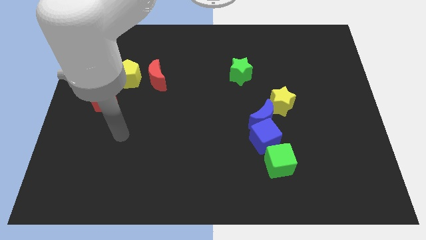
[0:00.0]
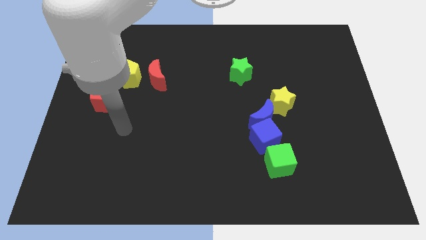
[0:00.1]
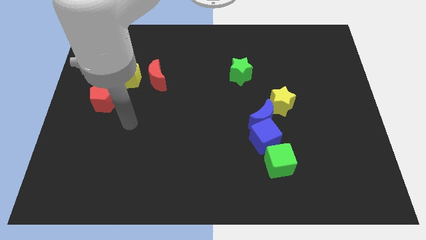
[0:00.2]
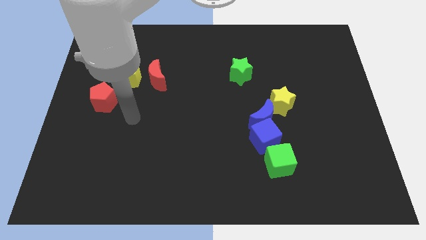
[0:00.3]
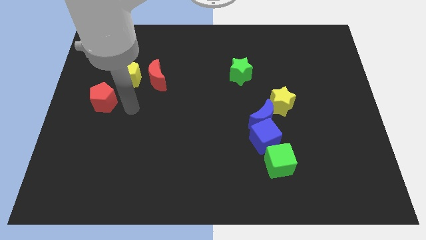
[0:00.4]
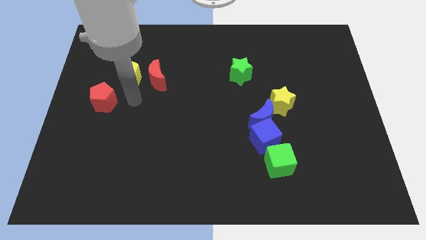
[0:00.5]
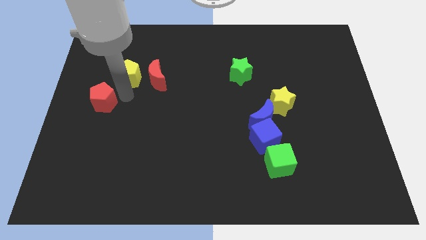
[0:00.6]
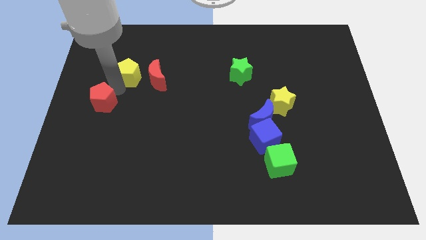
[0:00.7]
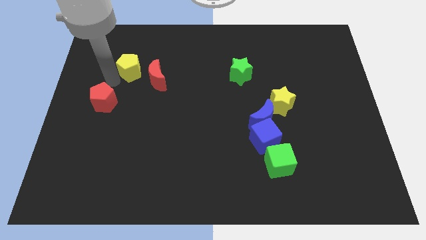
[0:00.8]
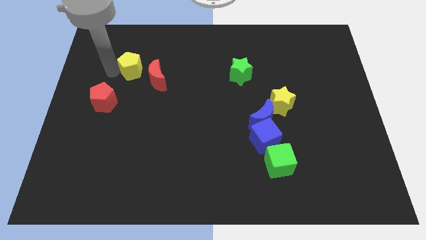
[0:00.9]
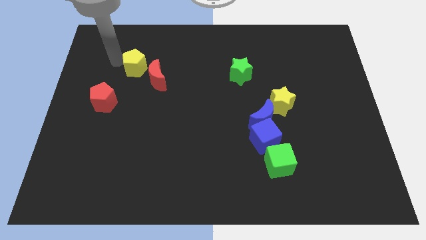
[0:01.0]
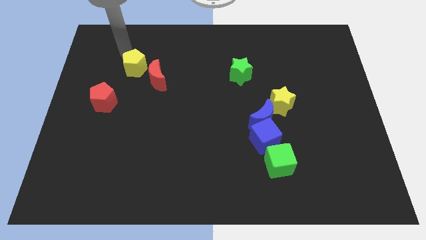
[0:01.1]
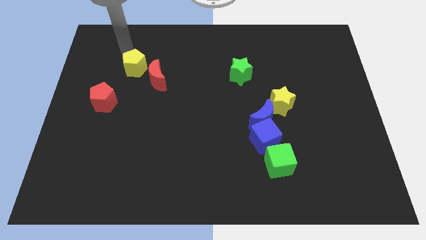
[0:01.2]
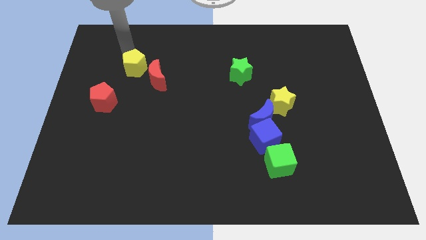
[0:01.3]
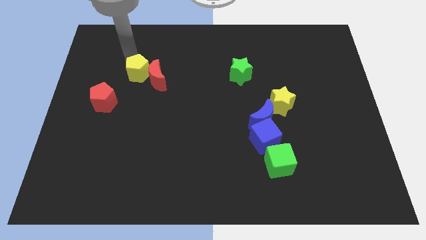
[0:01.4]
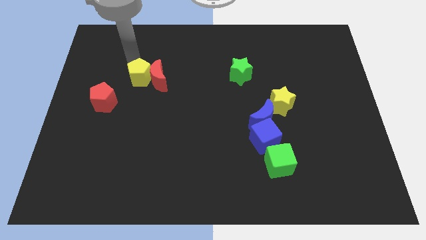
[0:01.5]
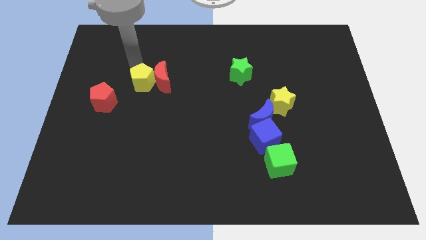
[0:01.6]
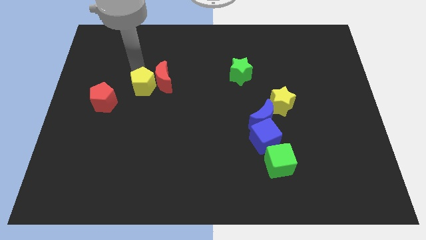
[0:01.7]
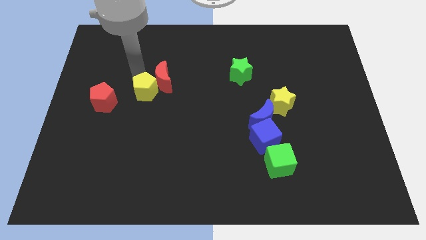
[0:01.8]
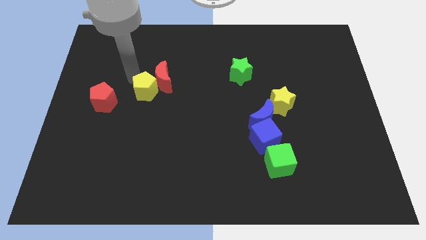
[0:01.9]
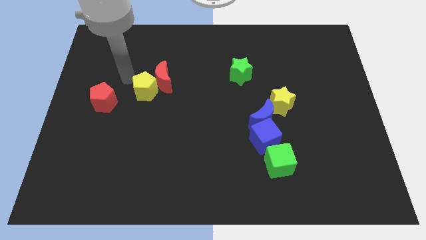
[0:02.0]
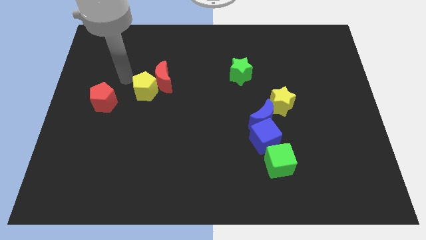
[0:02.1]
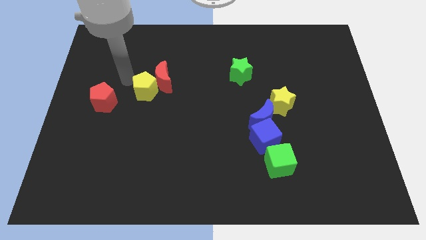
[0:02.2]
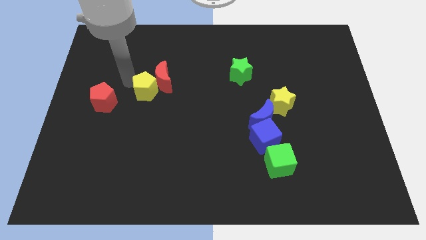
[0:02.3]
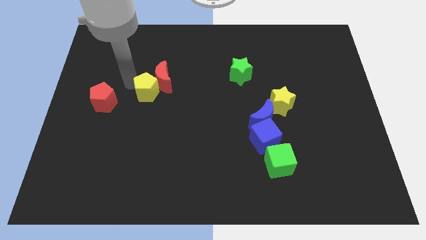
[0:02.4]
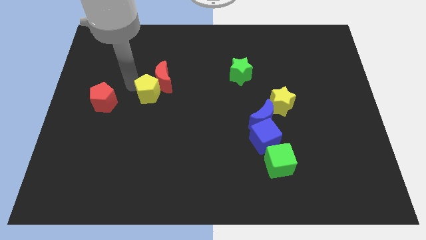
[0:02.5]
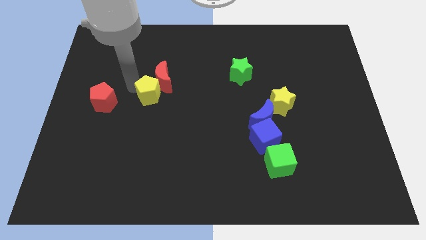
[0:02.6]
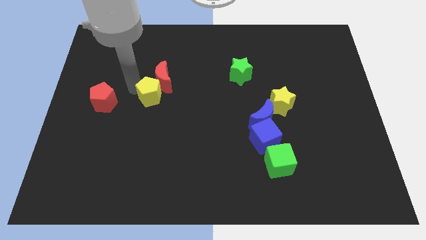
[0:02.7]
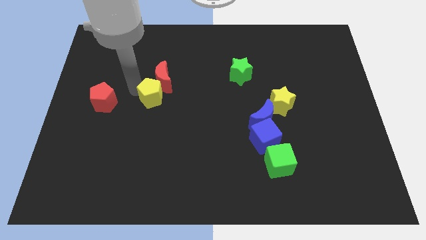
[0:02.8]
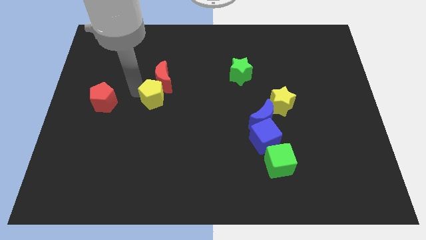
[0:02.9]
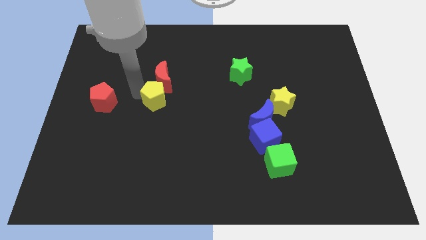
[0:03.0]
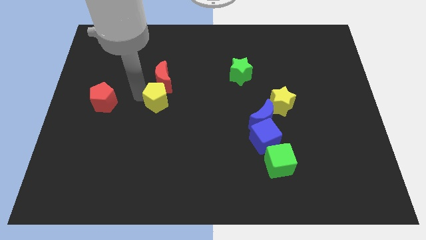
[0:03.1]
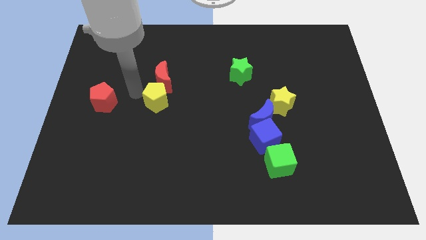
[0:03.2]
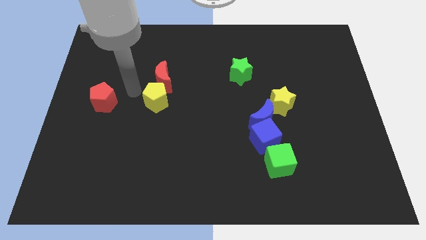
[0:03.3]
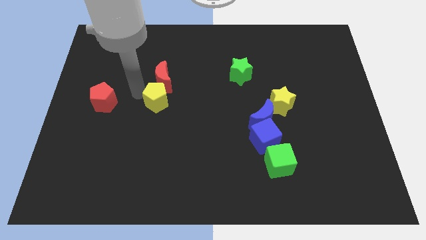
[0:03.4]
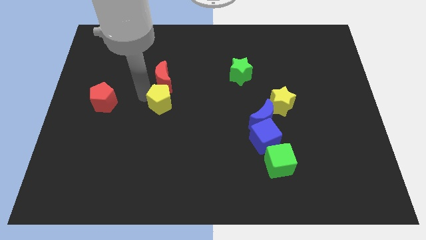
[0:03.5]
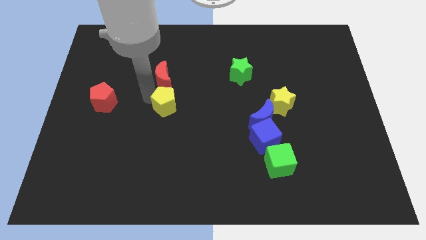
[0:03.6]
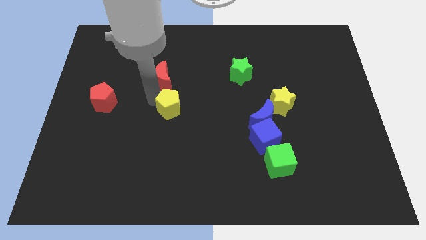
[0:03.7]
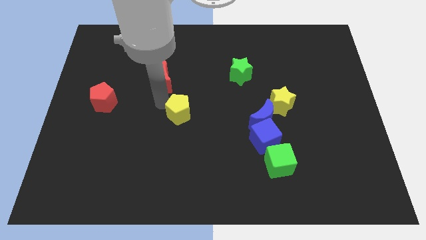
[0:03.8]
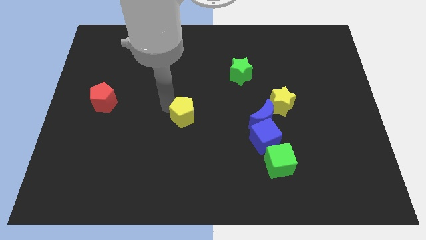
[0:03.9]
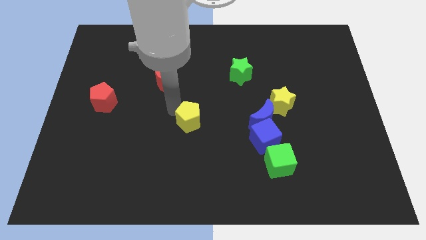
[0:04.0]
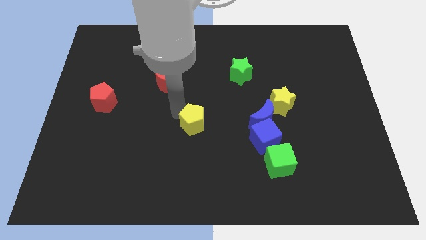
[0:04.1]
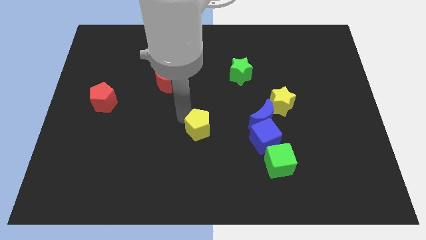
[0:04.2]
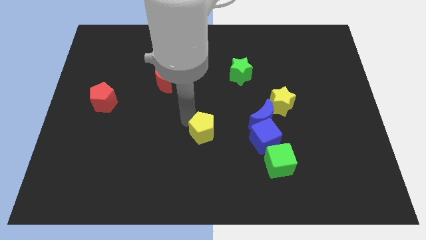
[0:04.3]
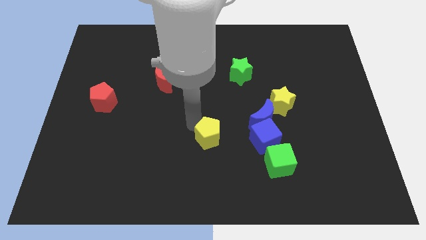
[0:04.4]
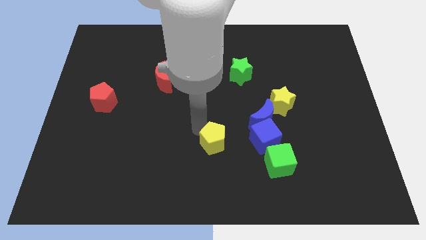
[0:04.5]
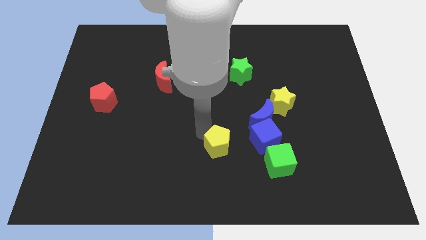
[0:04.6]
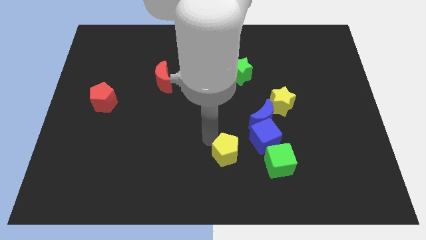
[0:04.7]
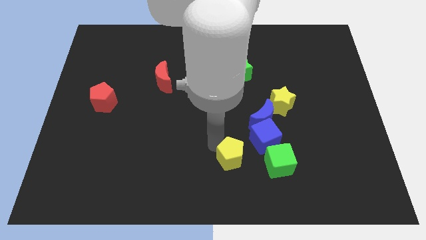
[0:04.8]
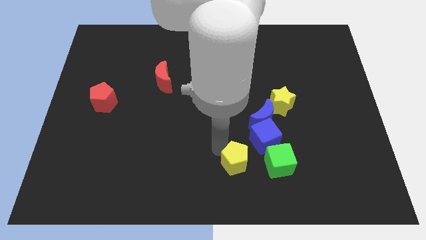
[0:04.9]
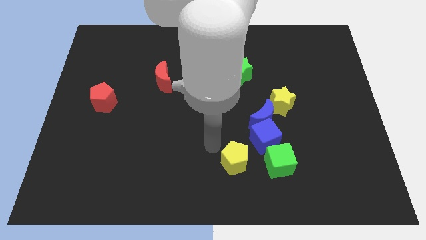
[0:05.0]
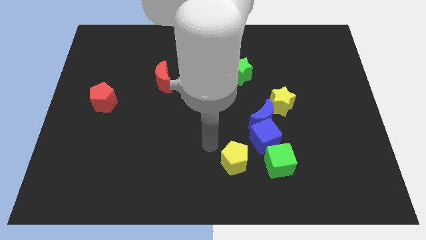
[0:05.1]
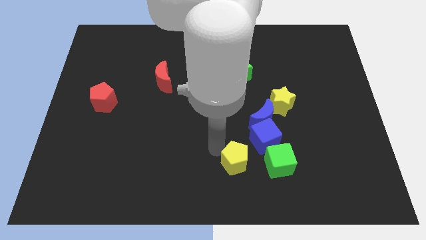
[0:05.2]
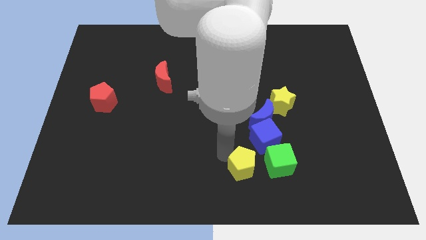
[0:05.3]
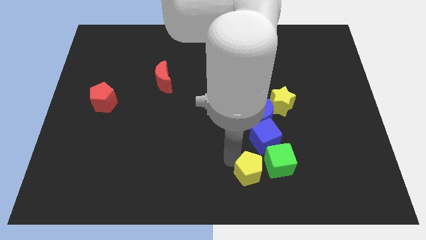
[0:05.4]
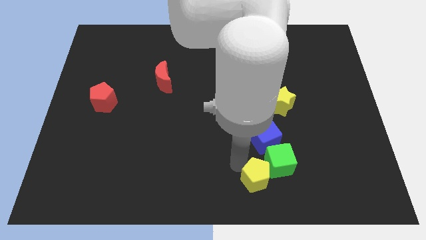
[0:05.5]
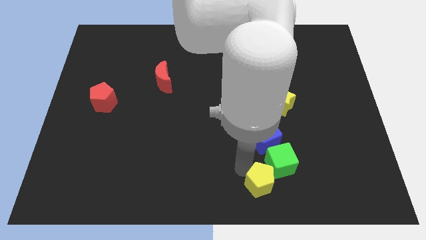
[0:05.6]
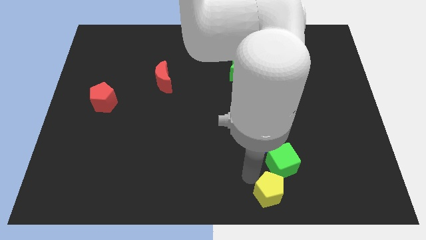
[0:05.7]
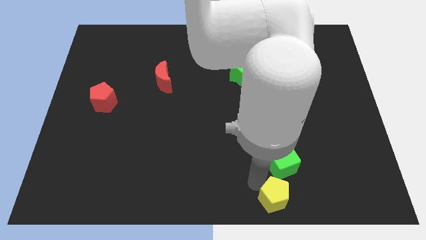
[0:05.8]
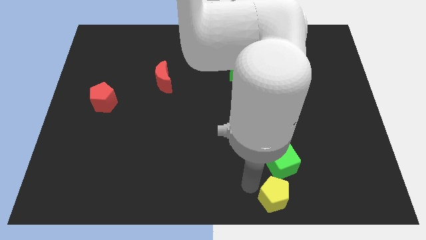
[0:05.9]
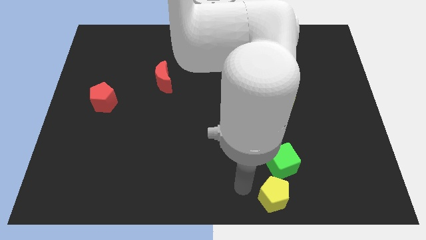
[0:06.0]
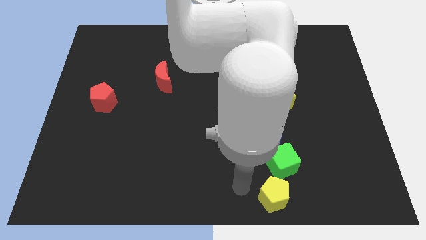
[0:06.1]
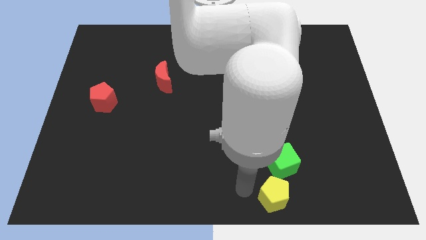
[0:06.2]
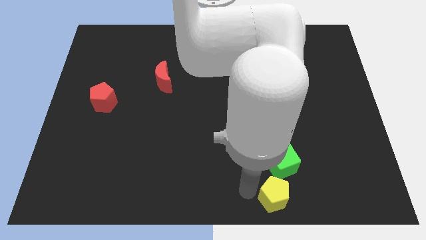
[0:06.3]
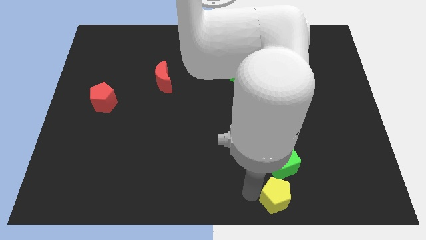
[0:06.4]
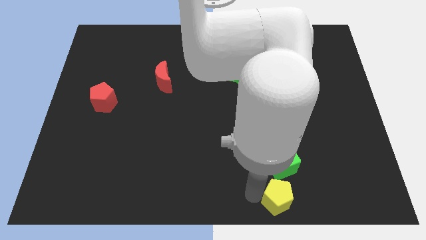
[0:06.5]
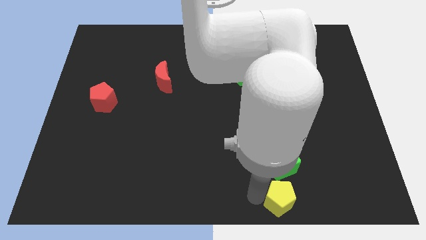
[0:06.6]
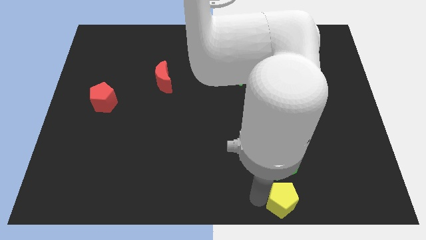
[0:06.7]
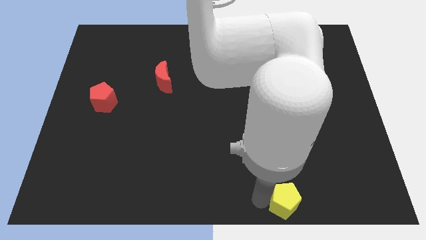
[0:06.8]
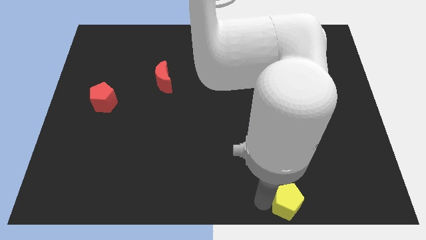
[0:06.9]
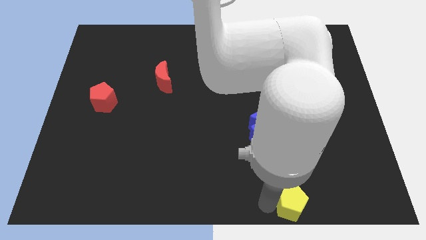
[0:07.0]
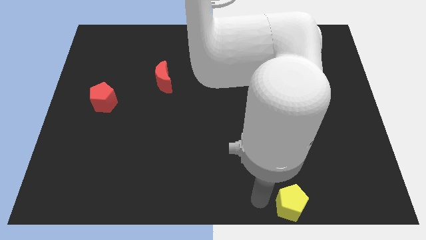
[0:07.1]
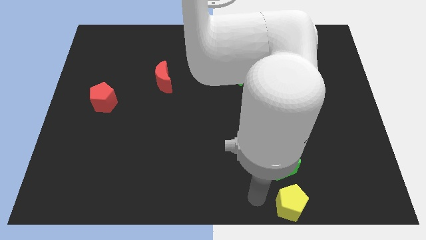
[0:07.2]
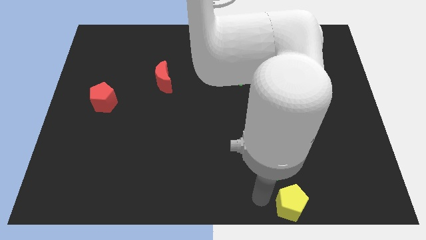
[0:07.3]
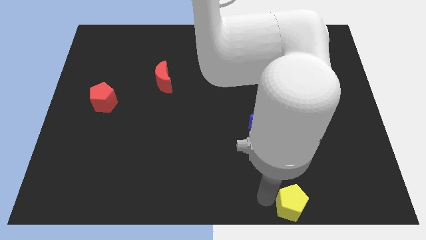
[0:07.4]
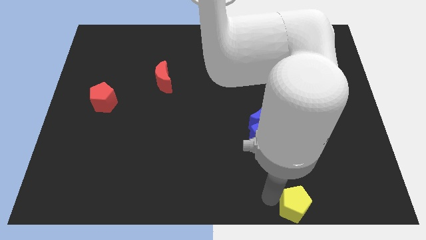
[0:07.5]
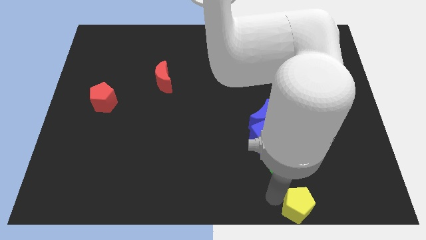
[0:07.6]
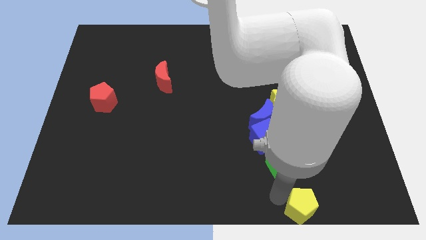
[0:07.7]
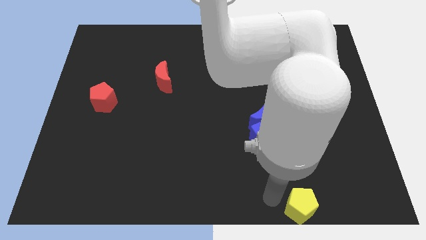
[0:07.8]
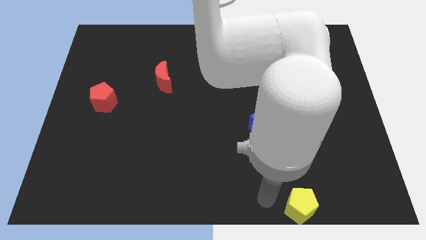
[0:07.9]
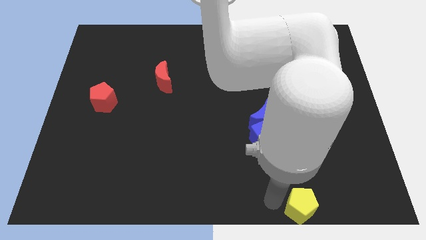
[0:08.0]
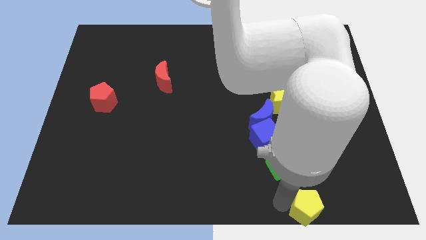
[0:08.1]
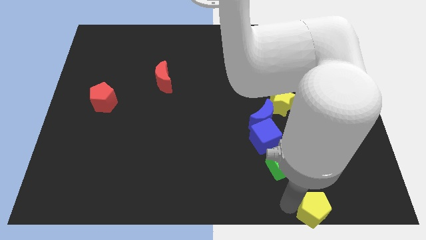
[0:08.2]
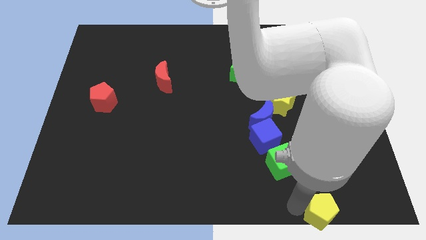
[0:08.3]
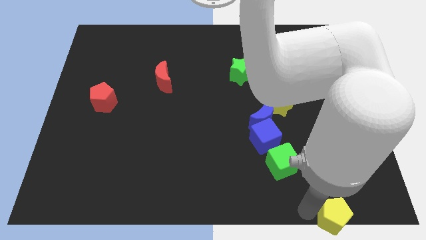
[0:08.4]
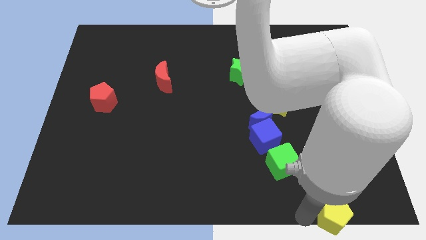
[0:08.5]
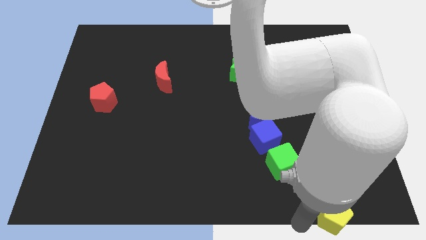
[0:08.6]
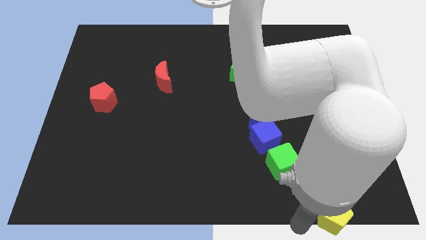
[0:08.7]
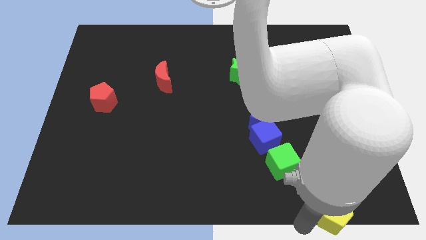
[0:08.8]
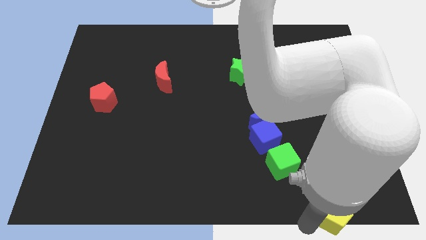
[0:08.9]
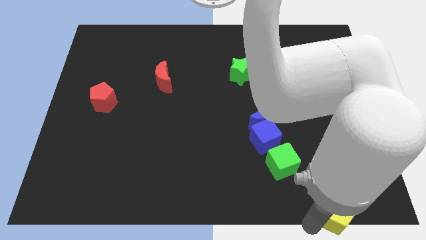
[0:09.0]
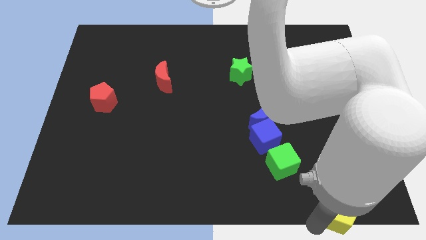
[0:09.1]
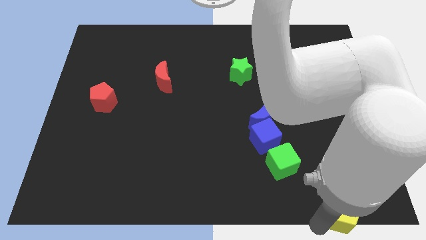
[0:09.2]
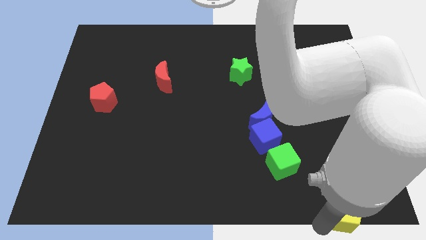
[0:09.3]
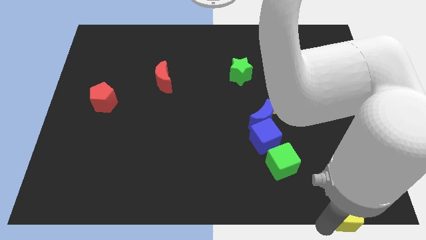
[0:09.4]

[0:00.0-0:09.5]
move the yellow pentagon to the bottom right of the board
